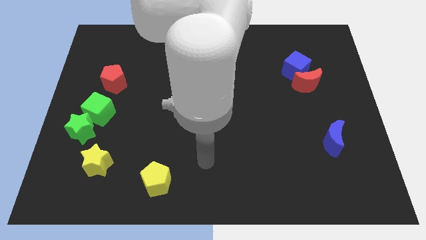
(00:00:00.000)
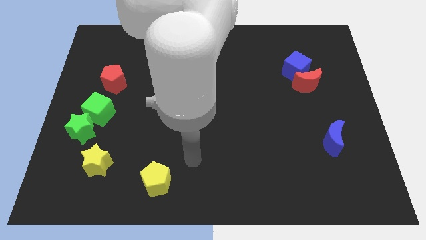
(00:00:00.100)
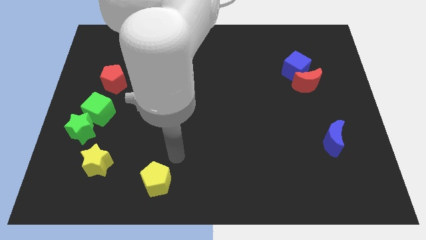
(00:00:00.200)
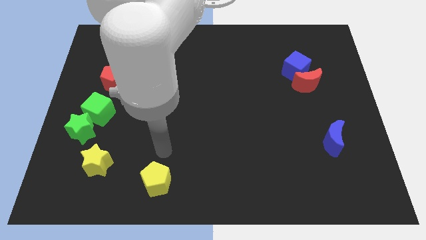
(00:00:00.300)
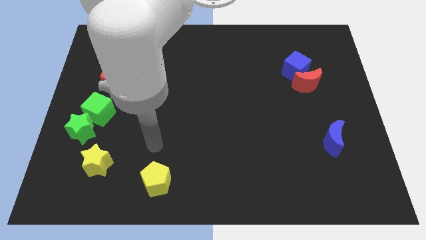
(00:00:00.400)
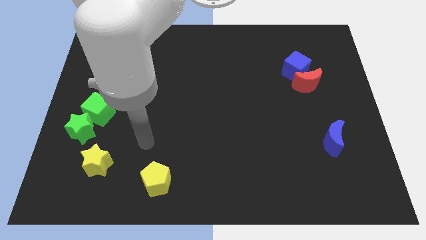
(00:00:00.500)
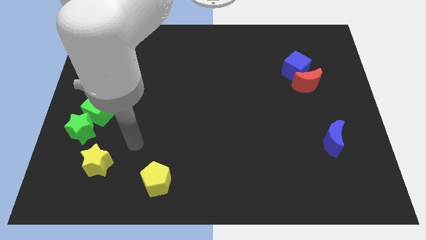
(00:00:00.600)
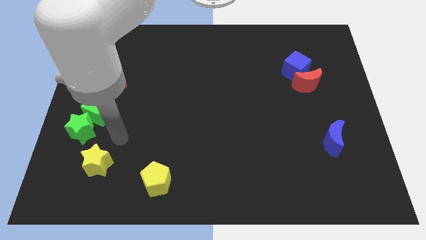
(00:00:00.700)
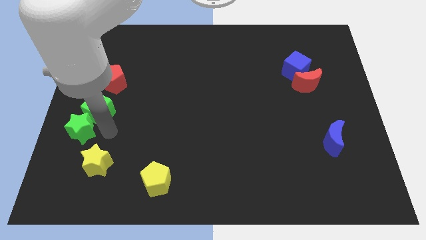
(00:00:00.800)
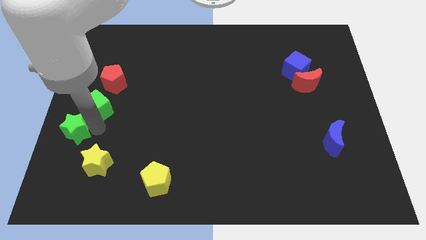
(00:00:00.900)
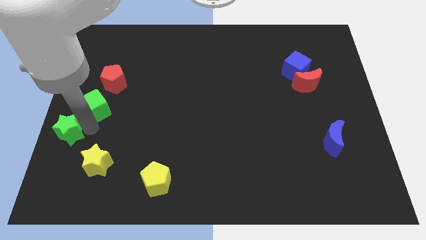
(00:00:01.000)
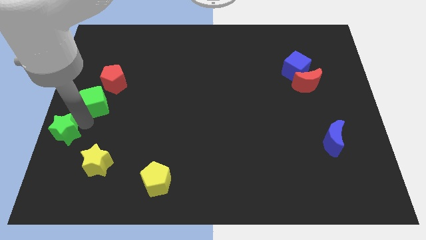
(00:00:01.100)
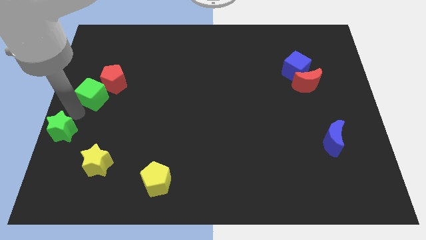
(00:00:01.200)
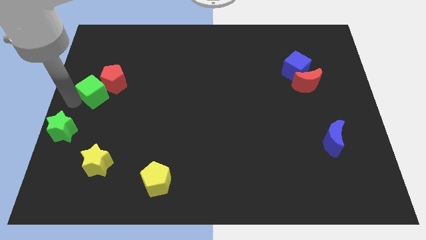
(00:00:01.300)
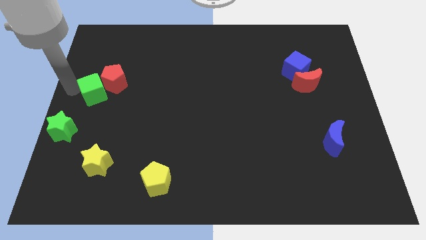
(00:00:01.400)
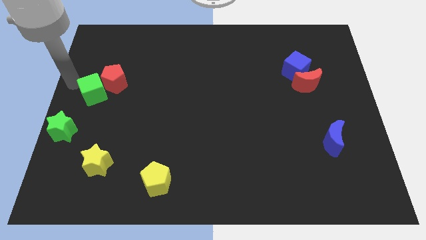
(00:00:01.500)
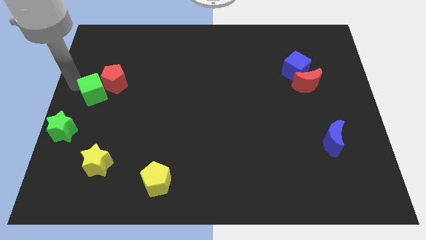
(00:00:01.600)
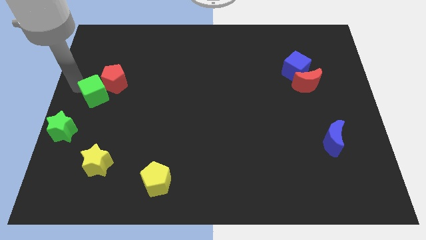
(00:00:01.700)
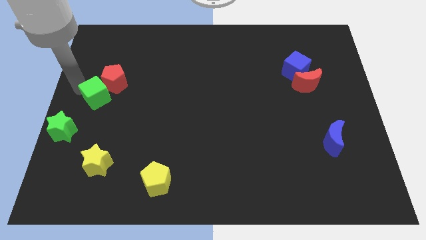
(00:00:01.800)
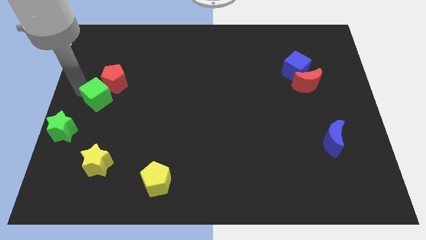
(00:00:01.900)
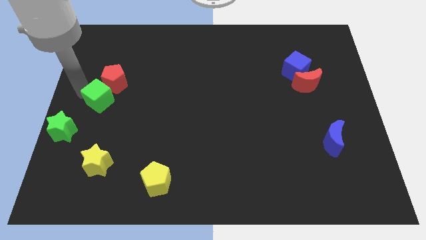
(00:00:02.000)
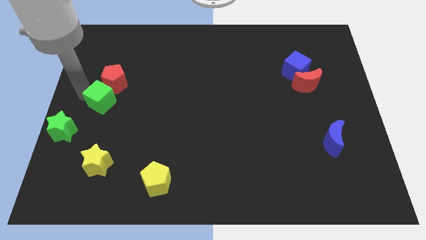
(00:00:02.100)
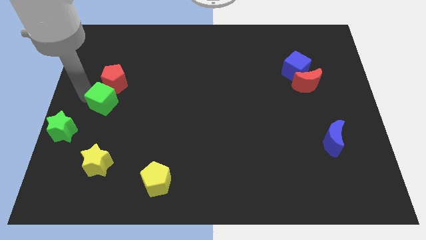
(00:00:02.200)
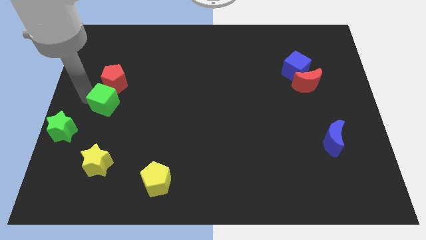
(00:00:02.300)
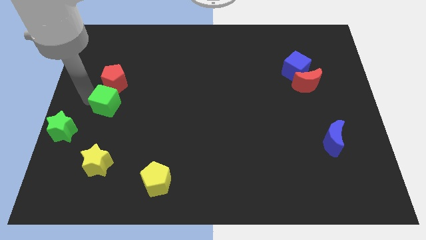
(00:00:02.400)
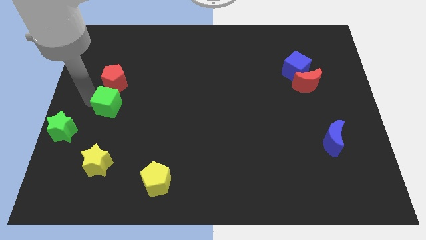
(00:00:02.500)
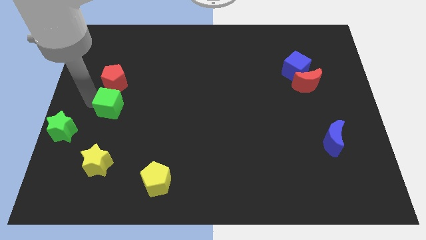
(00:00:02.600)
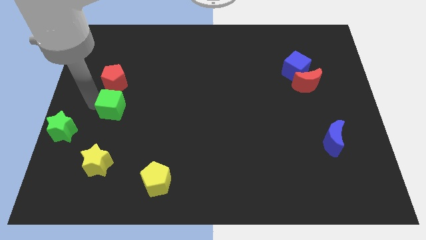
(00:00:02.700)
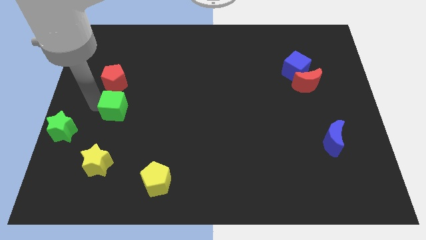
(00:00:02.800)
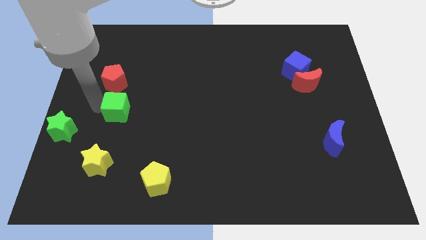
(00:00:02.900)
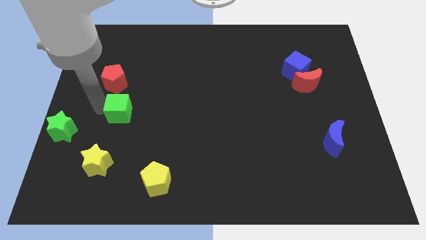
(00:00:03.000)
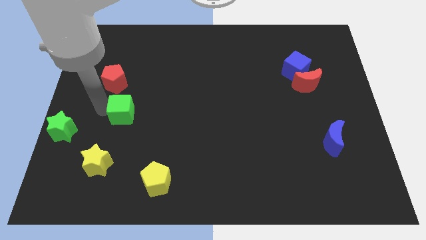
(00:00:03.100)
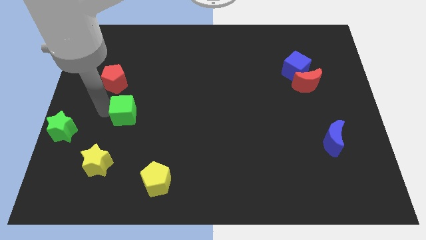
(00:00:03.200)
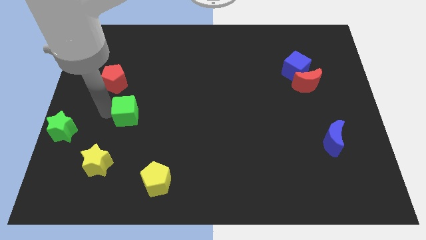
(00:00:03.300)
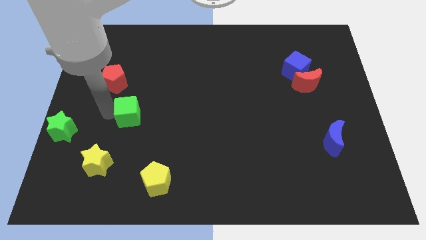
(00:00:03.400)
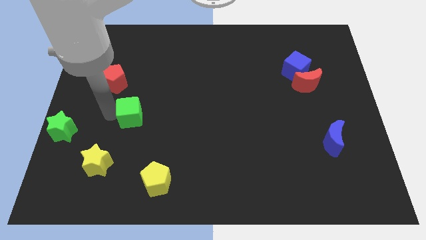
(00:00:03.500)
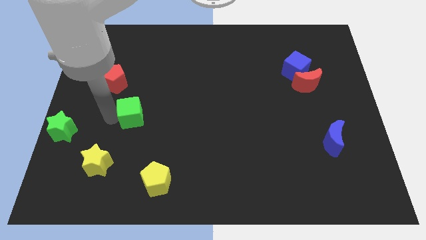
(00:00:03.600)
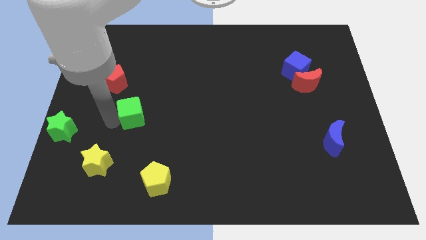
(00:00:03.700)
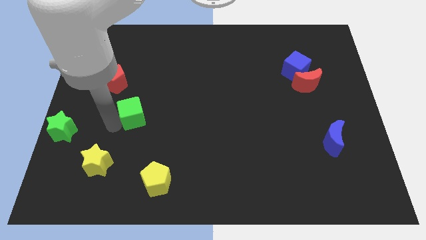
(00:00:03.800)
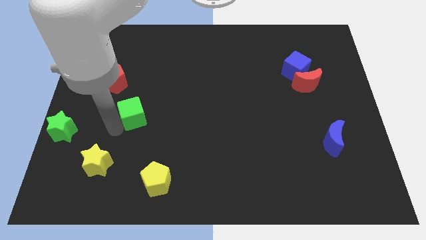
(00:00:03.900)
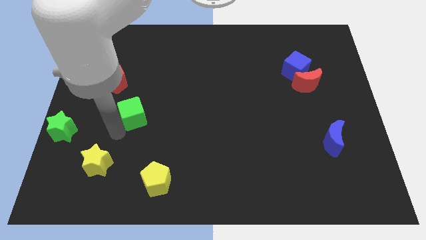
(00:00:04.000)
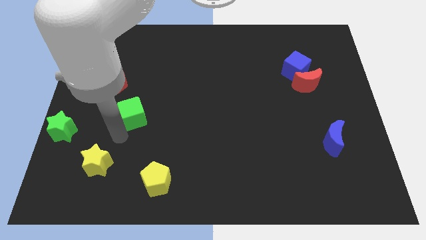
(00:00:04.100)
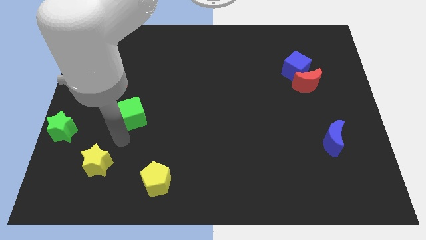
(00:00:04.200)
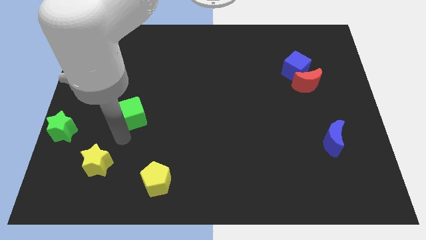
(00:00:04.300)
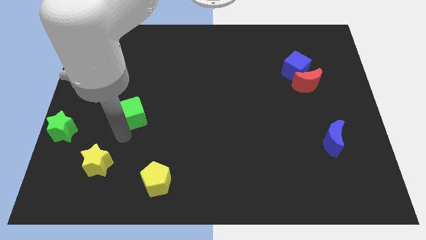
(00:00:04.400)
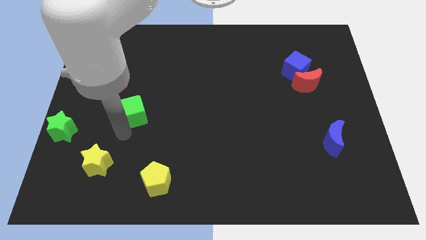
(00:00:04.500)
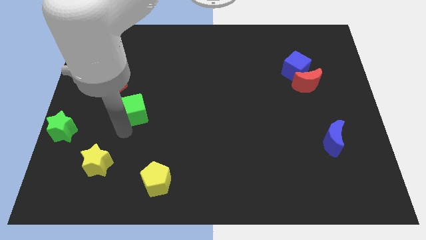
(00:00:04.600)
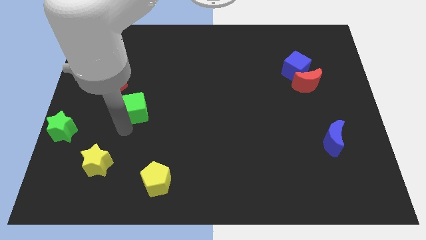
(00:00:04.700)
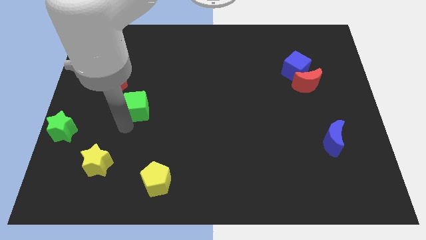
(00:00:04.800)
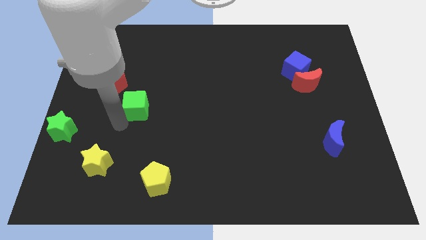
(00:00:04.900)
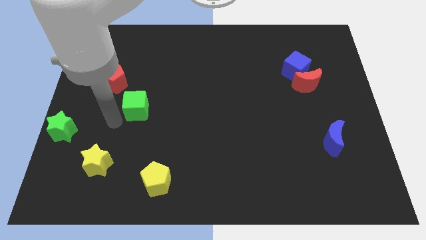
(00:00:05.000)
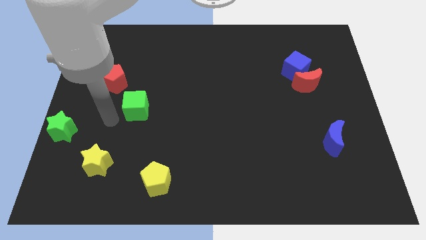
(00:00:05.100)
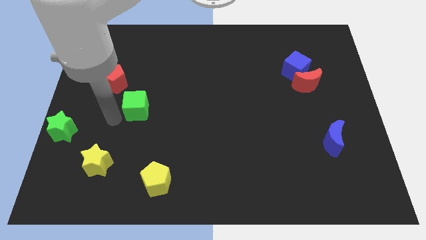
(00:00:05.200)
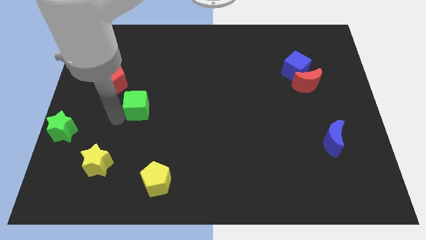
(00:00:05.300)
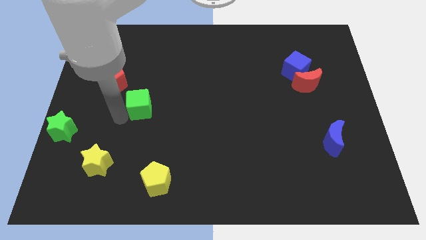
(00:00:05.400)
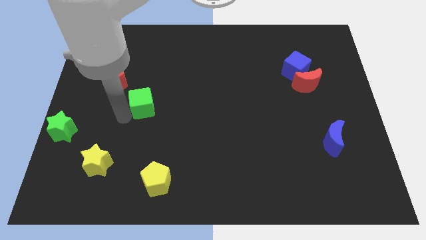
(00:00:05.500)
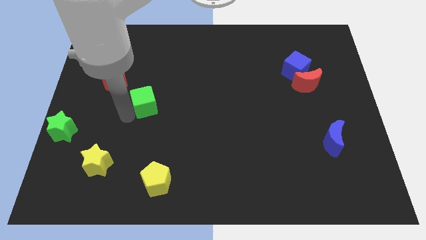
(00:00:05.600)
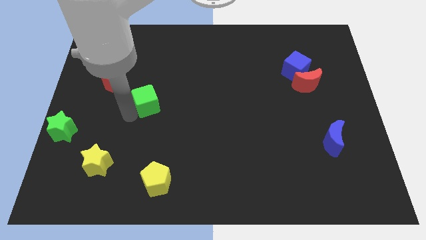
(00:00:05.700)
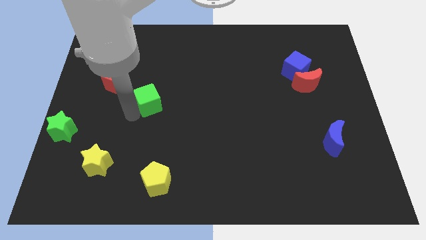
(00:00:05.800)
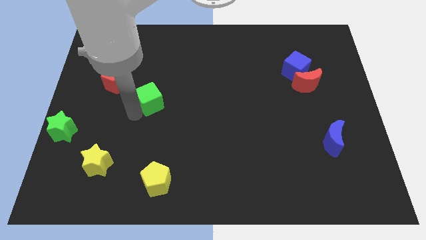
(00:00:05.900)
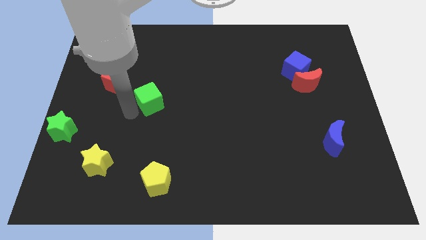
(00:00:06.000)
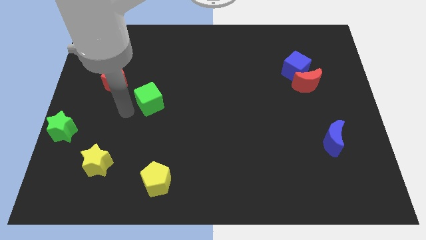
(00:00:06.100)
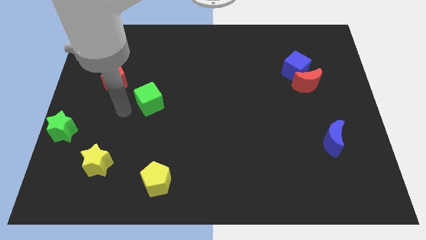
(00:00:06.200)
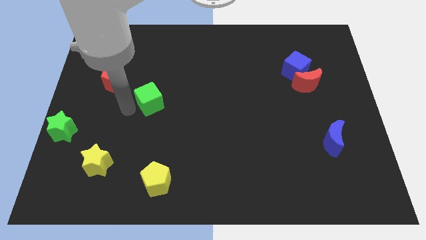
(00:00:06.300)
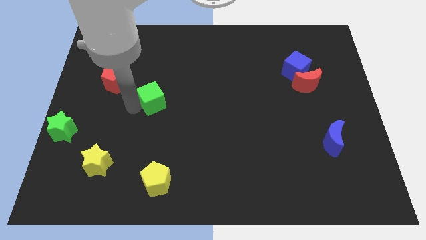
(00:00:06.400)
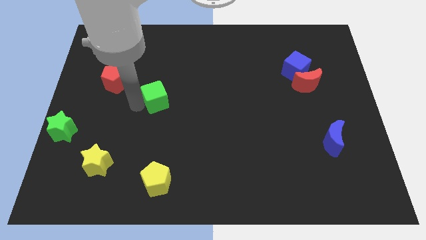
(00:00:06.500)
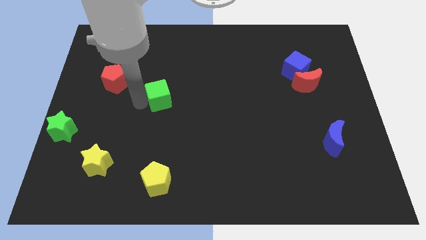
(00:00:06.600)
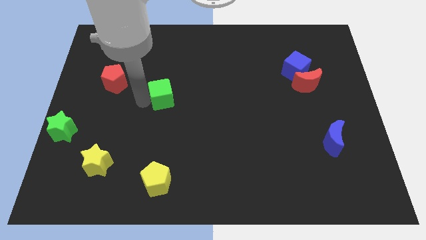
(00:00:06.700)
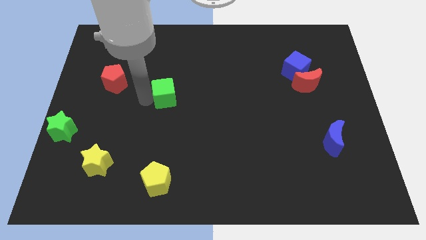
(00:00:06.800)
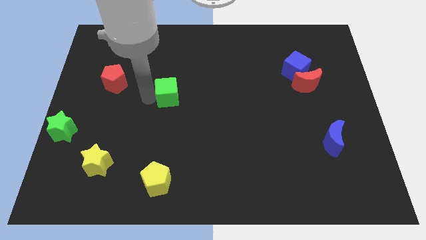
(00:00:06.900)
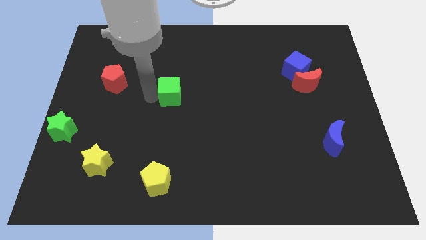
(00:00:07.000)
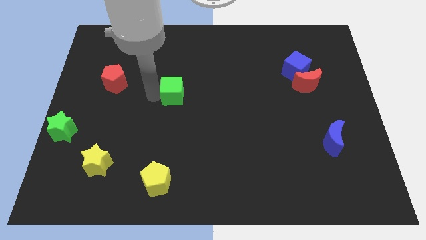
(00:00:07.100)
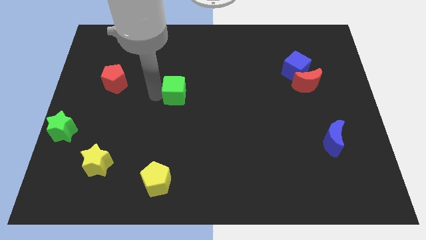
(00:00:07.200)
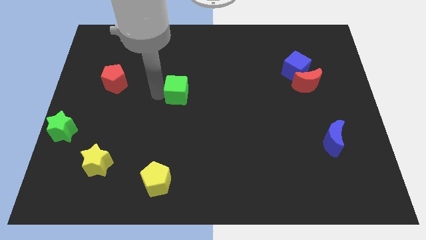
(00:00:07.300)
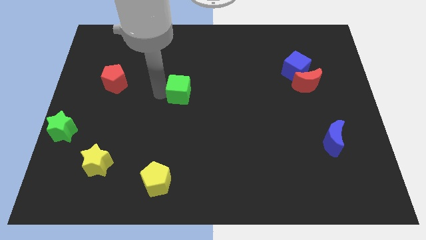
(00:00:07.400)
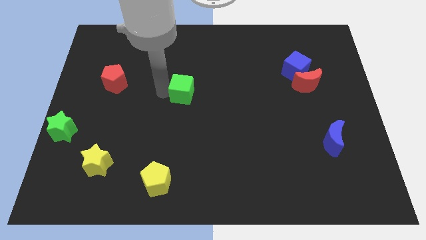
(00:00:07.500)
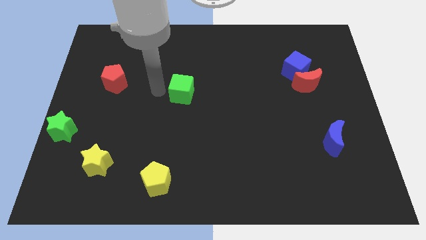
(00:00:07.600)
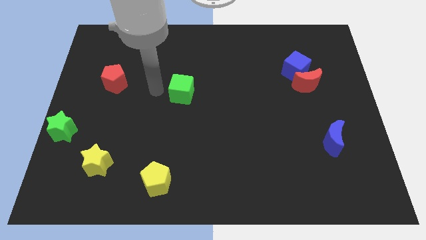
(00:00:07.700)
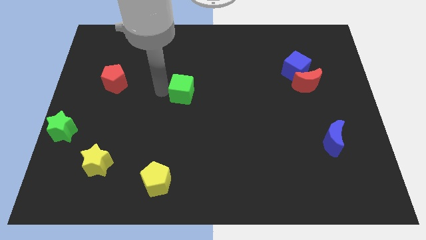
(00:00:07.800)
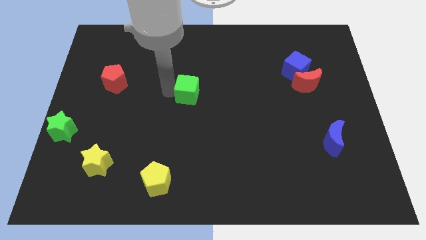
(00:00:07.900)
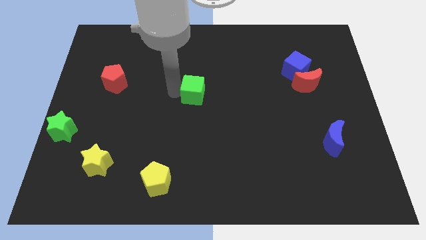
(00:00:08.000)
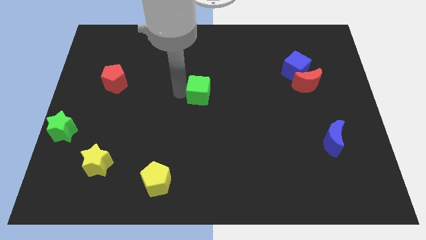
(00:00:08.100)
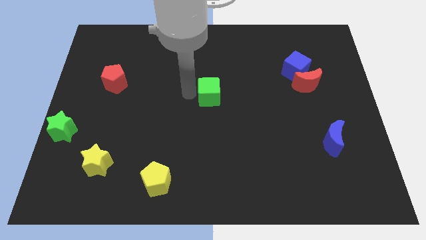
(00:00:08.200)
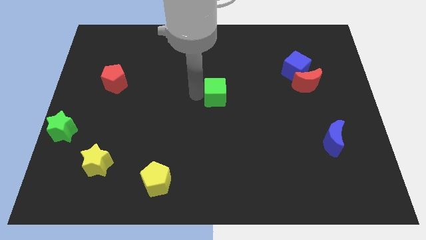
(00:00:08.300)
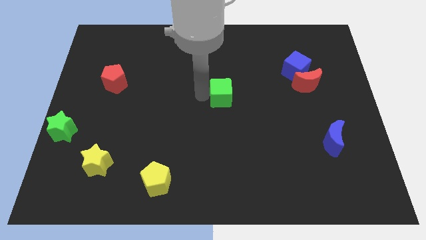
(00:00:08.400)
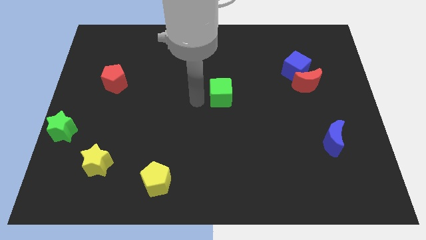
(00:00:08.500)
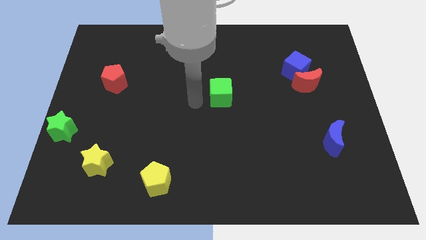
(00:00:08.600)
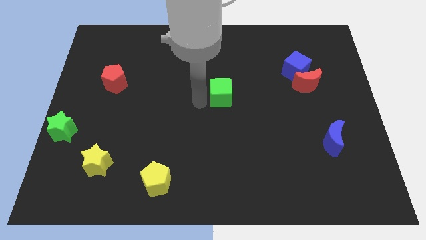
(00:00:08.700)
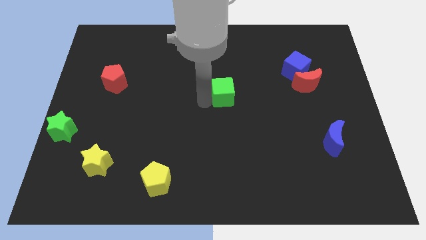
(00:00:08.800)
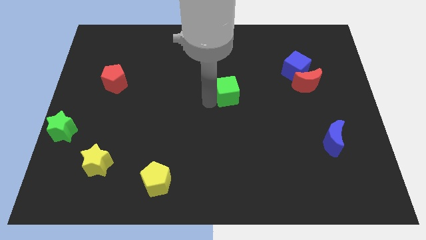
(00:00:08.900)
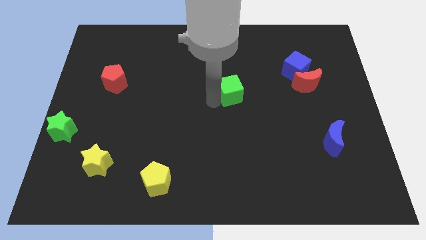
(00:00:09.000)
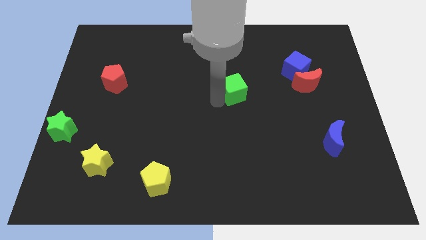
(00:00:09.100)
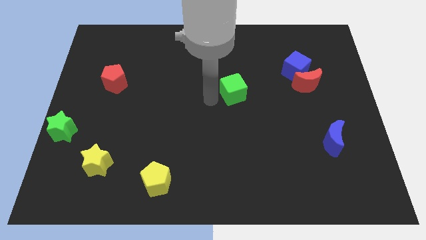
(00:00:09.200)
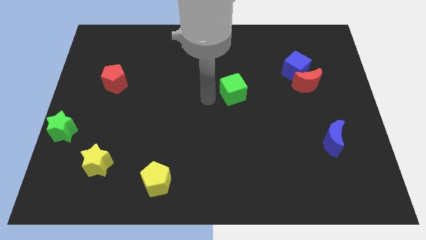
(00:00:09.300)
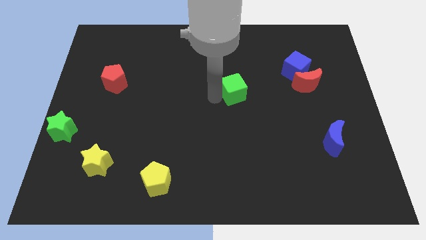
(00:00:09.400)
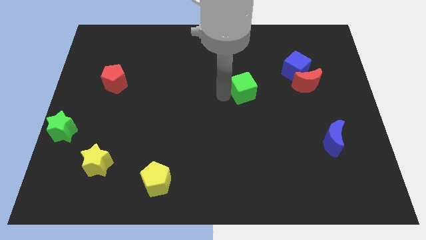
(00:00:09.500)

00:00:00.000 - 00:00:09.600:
put the green cube to the left side of the red moon
